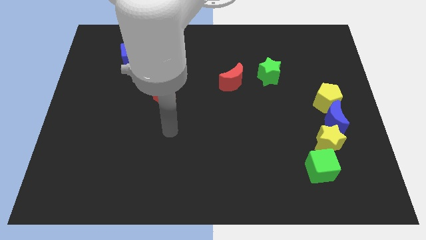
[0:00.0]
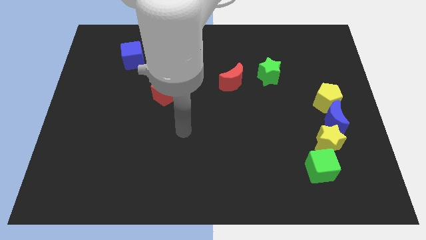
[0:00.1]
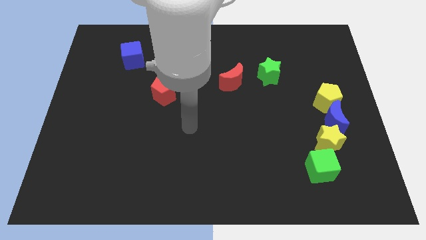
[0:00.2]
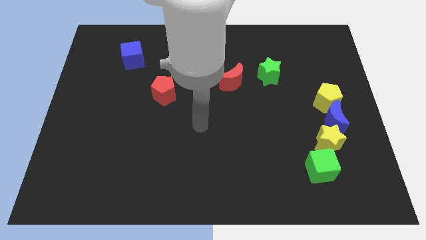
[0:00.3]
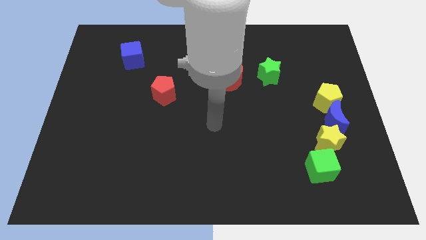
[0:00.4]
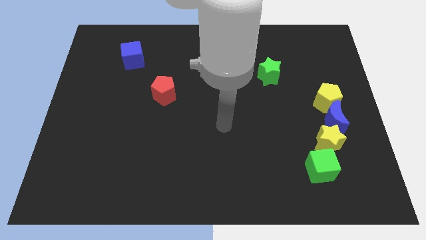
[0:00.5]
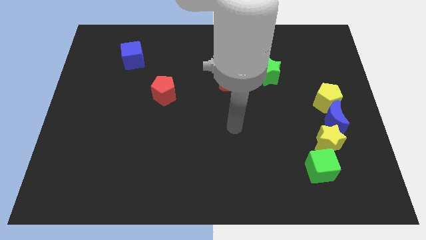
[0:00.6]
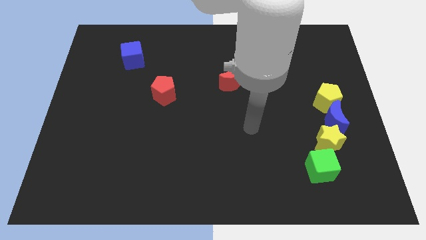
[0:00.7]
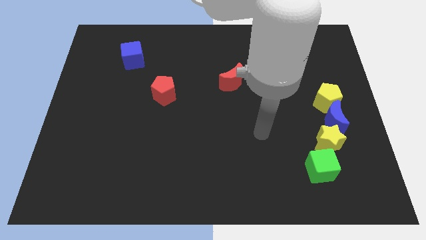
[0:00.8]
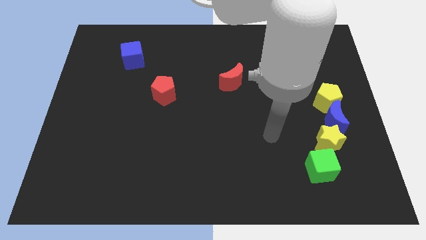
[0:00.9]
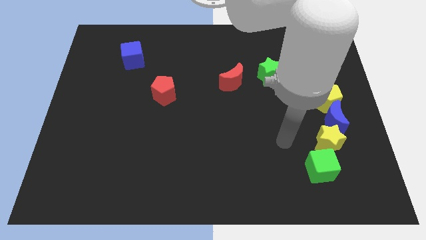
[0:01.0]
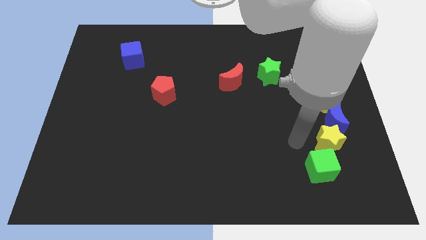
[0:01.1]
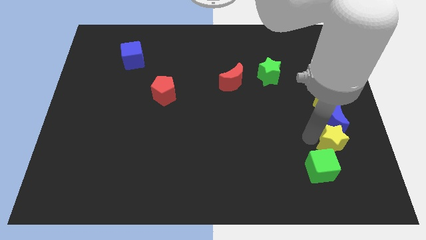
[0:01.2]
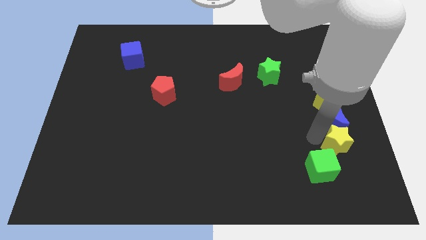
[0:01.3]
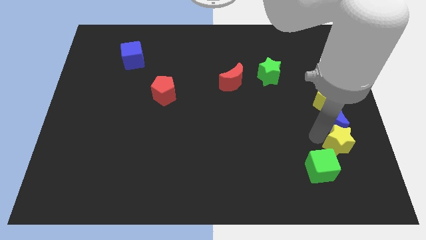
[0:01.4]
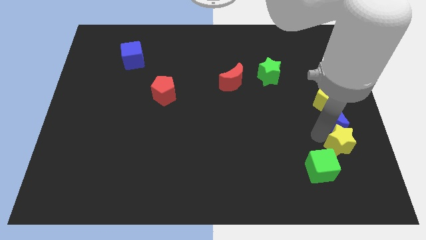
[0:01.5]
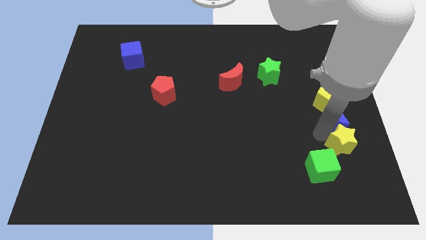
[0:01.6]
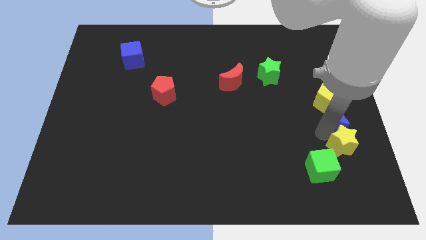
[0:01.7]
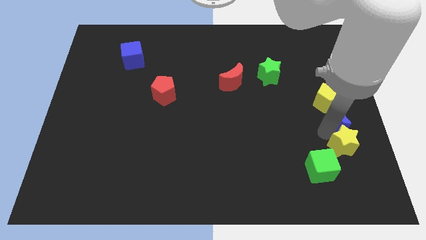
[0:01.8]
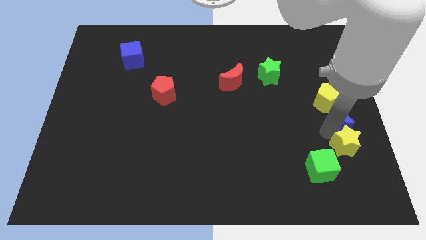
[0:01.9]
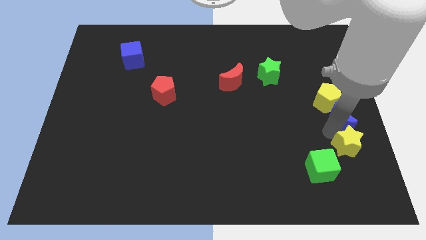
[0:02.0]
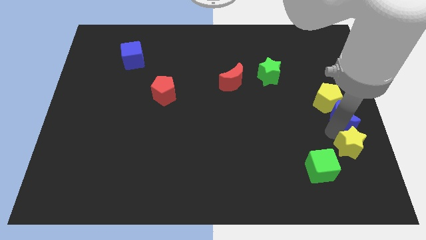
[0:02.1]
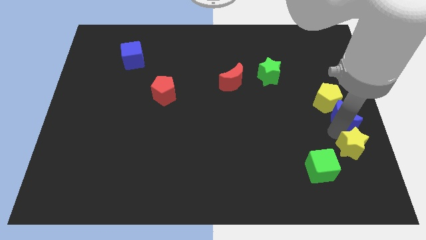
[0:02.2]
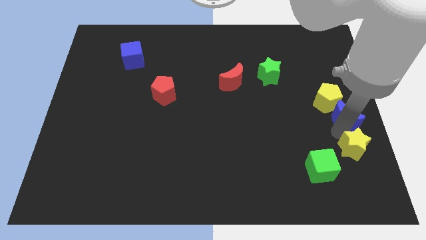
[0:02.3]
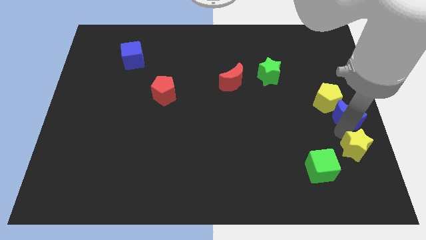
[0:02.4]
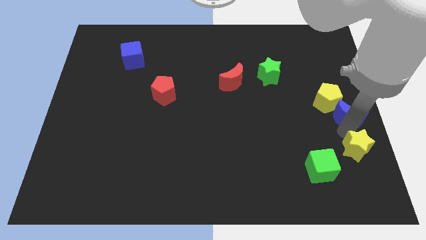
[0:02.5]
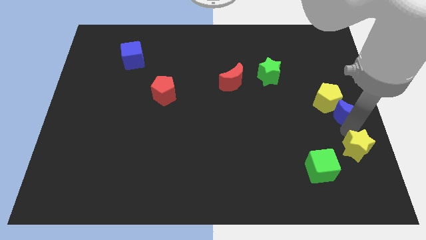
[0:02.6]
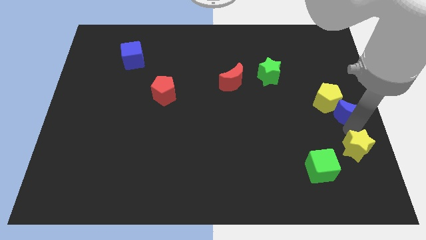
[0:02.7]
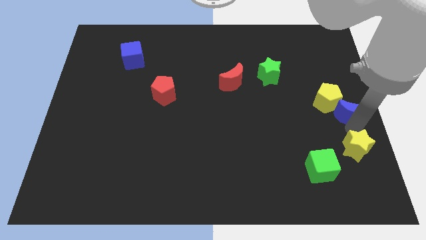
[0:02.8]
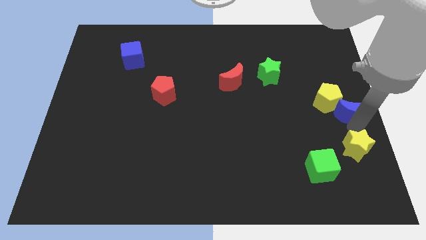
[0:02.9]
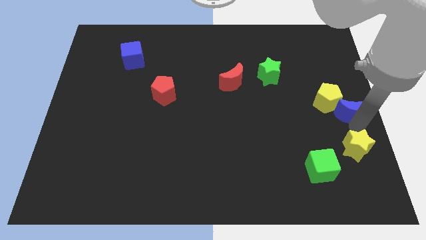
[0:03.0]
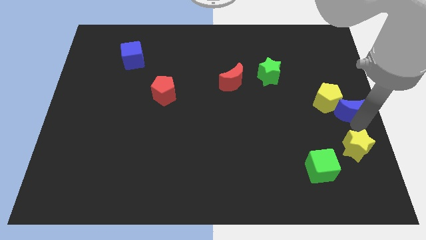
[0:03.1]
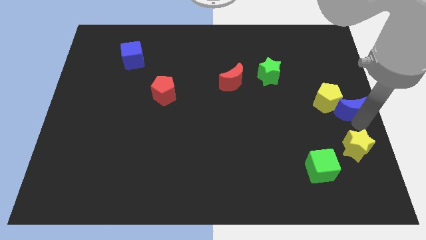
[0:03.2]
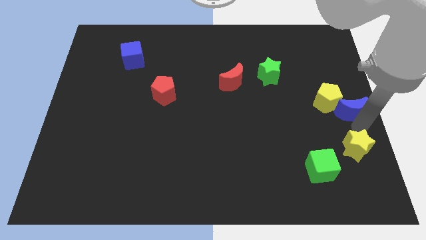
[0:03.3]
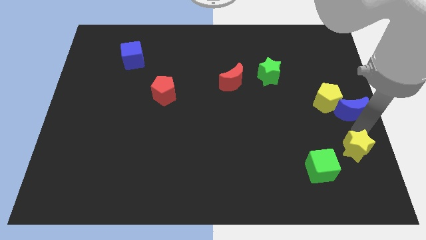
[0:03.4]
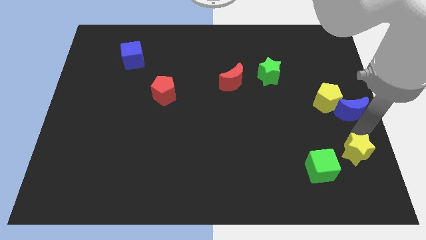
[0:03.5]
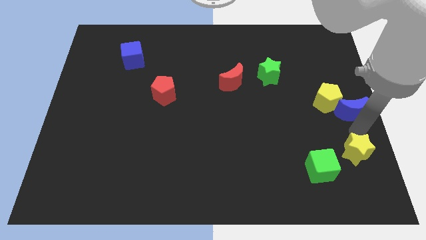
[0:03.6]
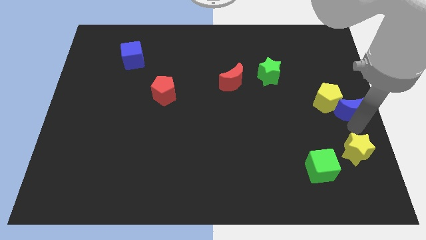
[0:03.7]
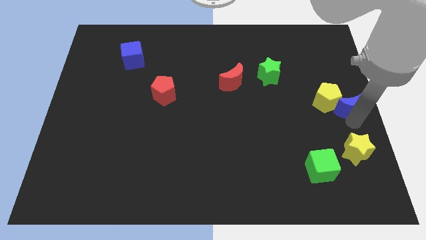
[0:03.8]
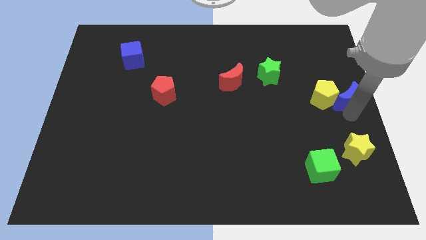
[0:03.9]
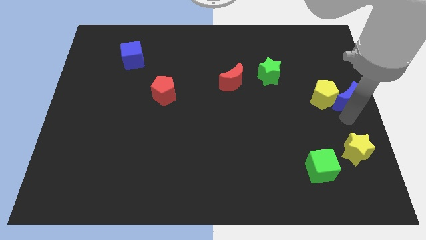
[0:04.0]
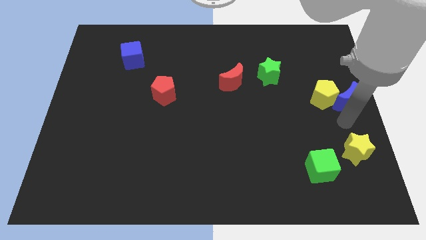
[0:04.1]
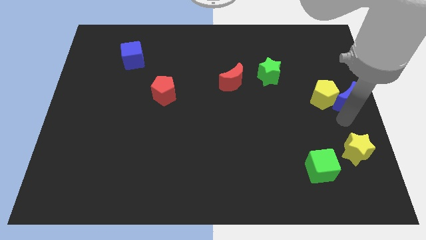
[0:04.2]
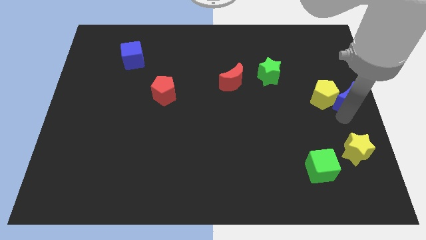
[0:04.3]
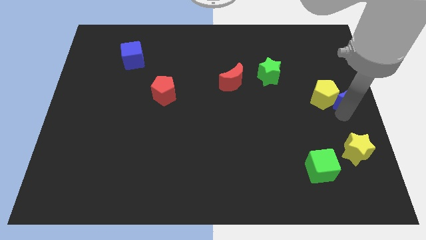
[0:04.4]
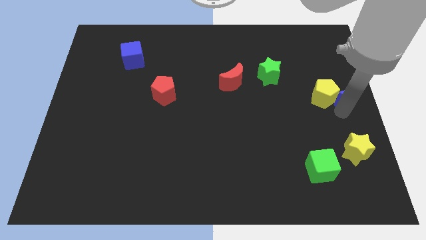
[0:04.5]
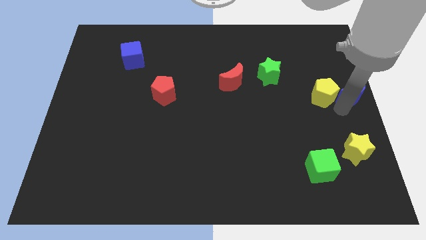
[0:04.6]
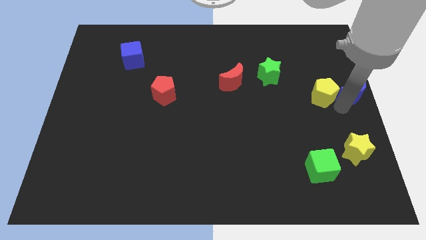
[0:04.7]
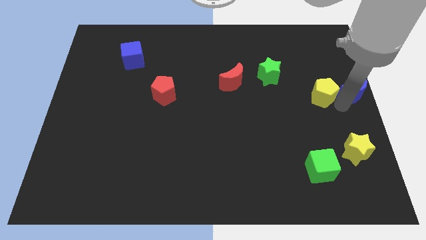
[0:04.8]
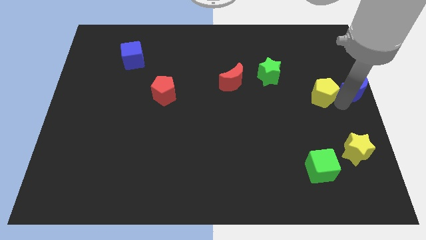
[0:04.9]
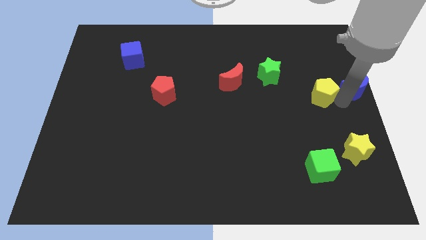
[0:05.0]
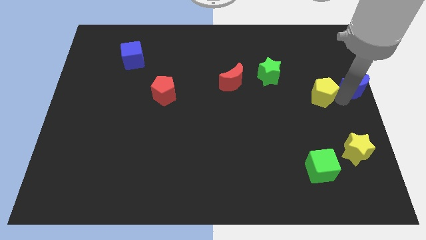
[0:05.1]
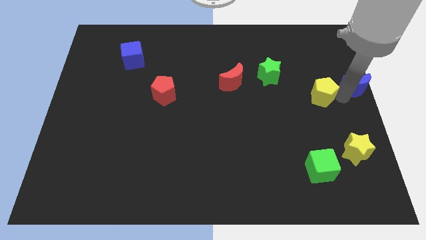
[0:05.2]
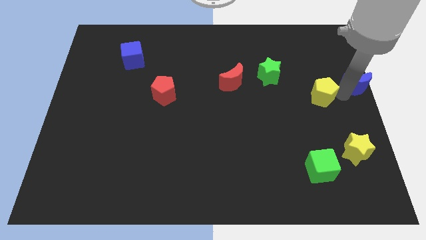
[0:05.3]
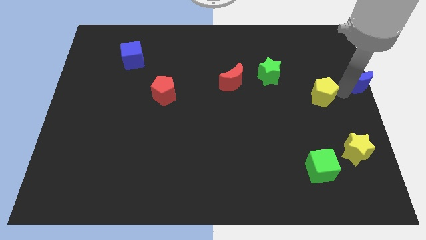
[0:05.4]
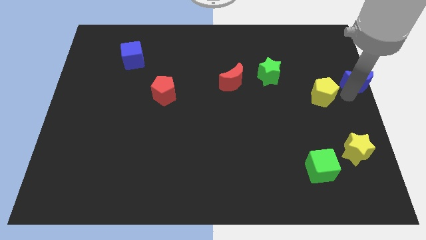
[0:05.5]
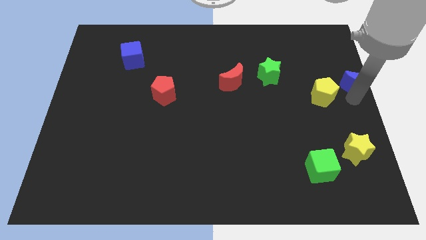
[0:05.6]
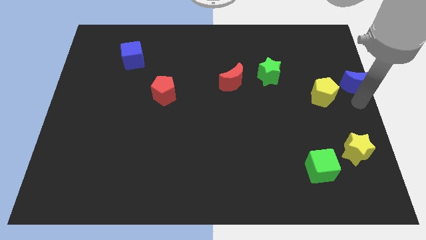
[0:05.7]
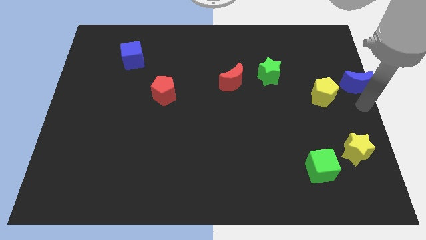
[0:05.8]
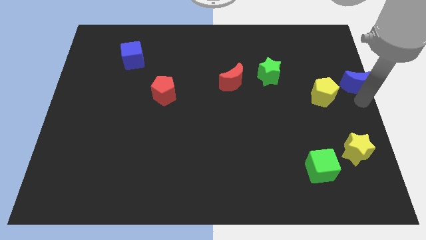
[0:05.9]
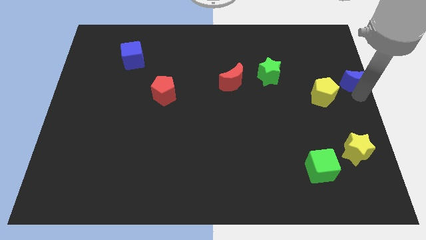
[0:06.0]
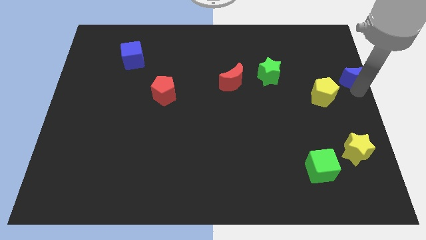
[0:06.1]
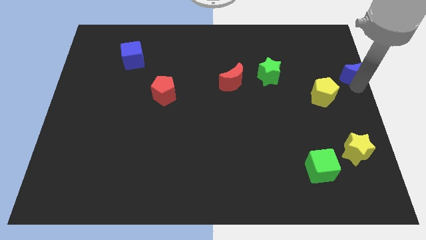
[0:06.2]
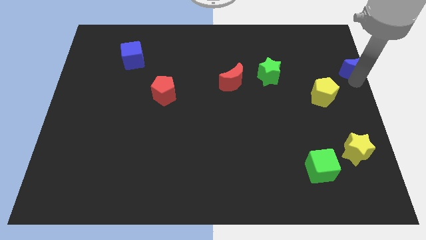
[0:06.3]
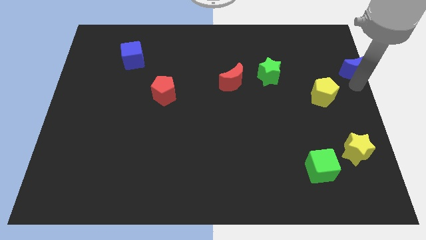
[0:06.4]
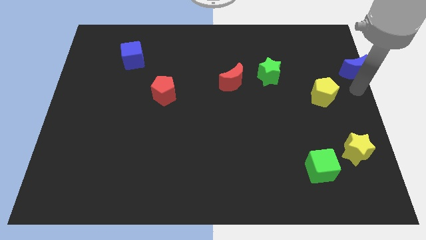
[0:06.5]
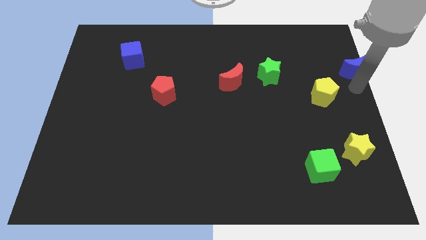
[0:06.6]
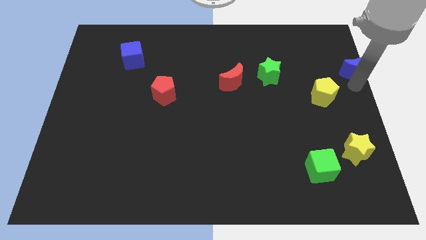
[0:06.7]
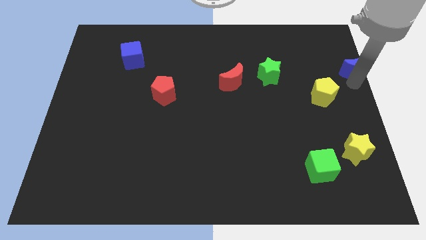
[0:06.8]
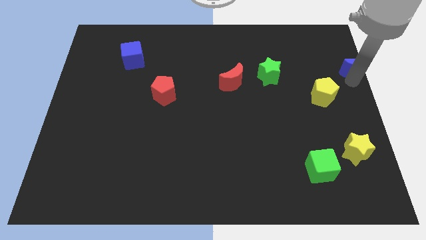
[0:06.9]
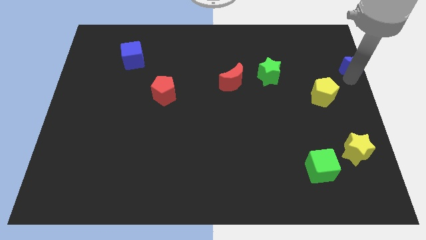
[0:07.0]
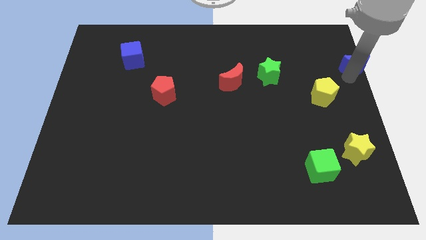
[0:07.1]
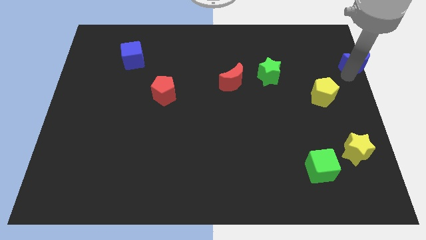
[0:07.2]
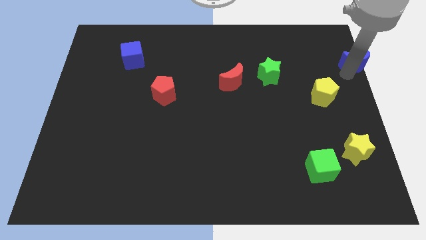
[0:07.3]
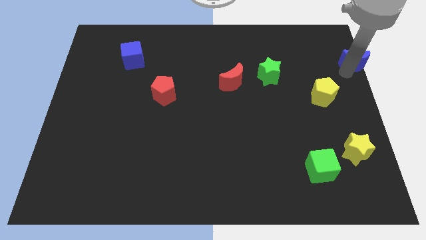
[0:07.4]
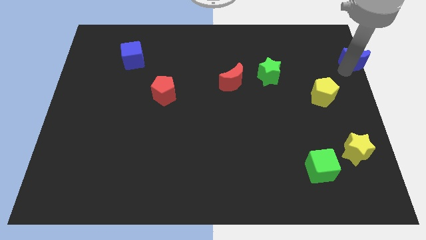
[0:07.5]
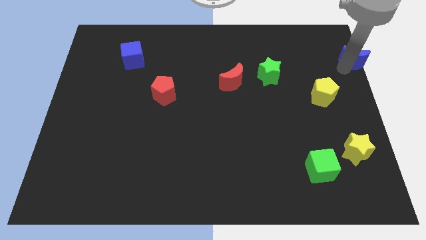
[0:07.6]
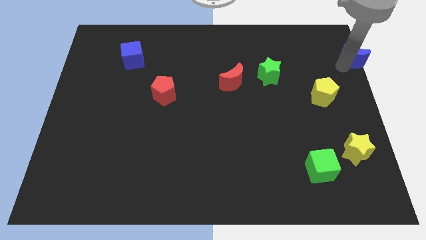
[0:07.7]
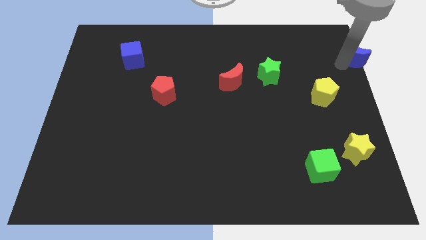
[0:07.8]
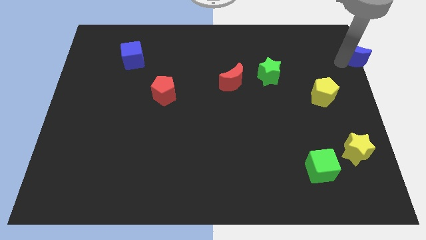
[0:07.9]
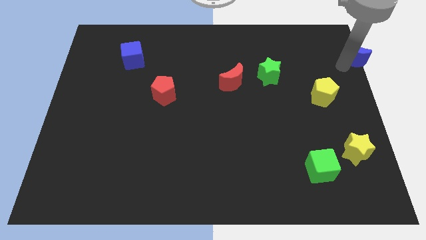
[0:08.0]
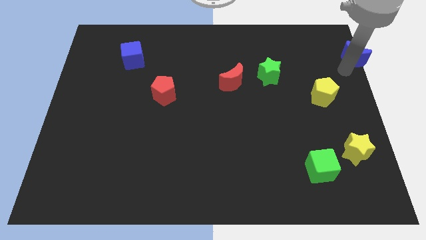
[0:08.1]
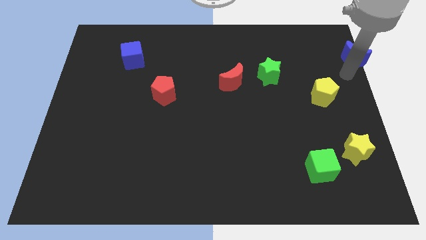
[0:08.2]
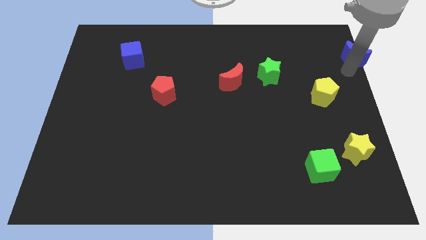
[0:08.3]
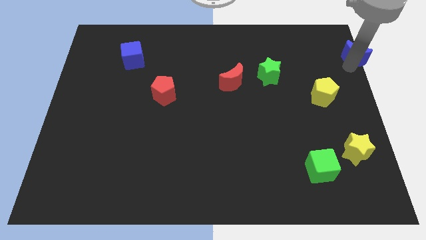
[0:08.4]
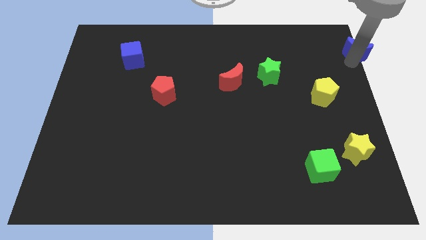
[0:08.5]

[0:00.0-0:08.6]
move the blue moon to the top right corner
